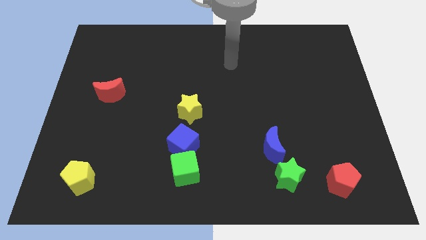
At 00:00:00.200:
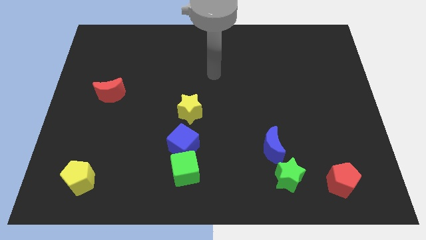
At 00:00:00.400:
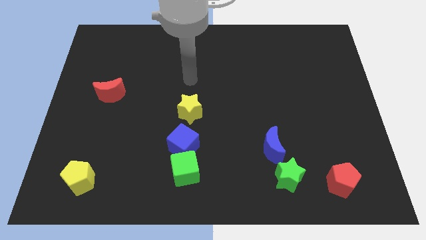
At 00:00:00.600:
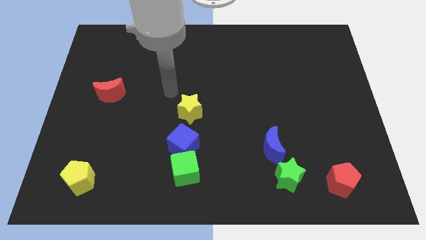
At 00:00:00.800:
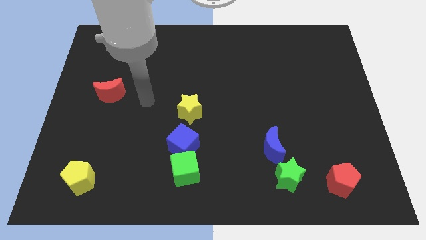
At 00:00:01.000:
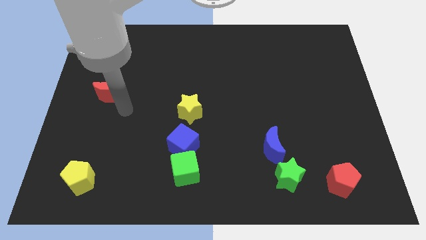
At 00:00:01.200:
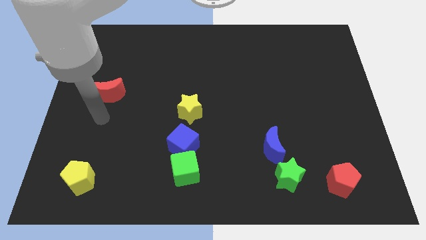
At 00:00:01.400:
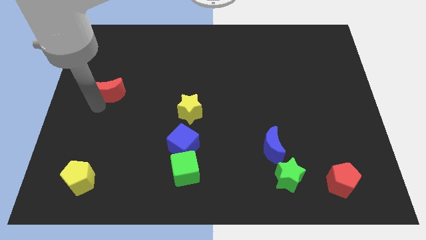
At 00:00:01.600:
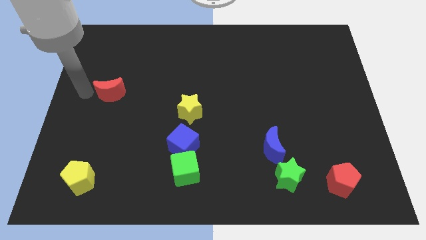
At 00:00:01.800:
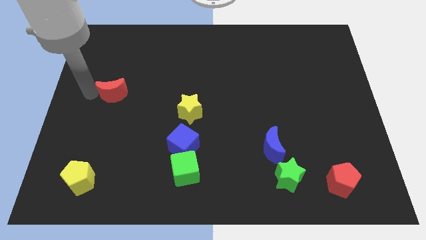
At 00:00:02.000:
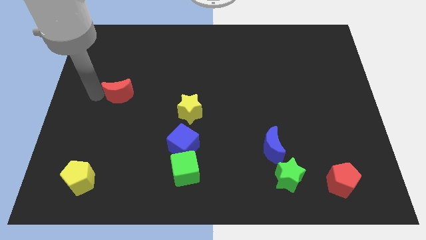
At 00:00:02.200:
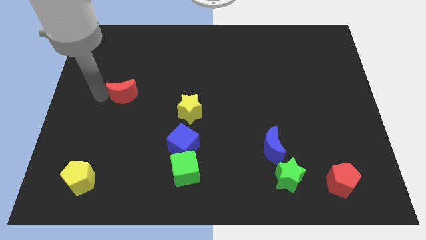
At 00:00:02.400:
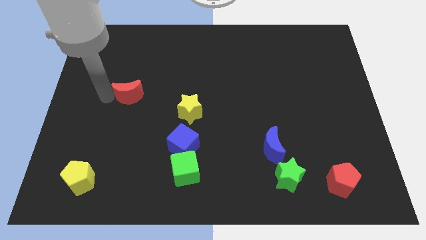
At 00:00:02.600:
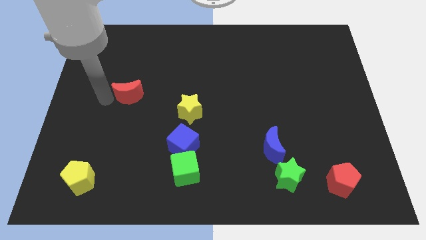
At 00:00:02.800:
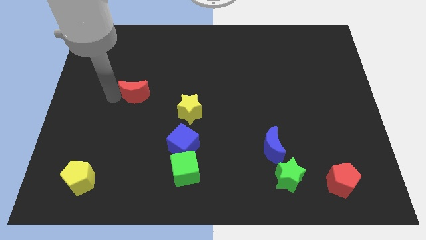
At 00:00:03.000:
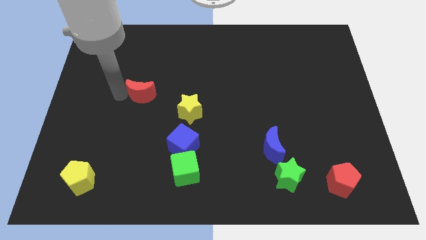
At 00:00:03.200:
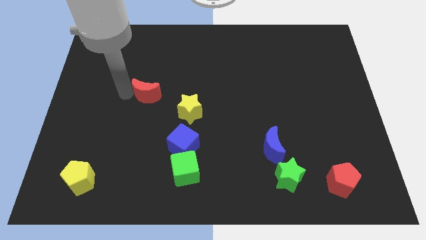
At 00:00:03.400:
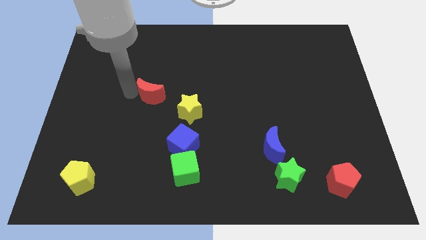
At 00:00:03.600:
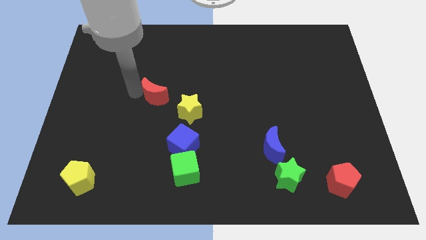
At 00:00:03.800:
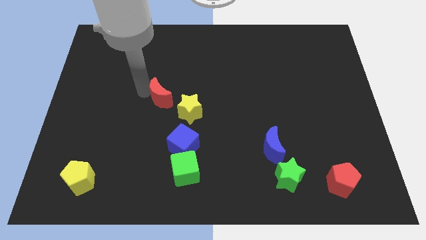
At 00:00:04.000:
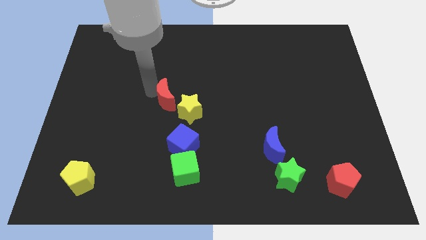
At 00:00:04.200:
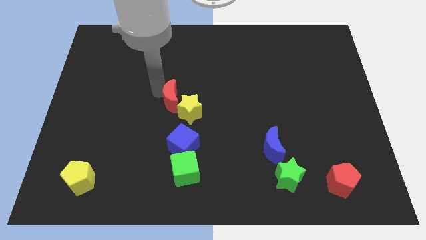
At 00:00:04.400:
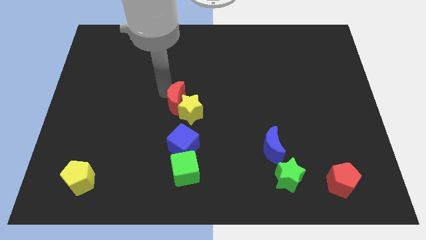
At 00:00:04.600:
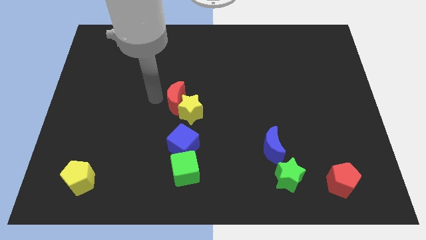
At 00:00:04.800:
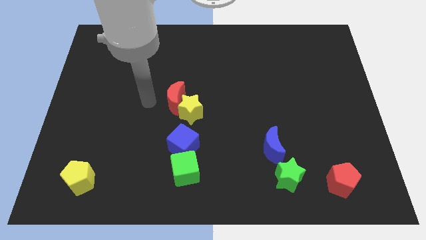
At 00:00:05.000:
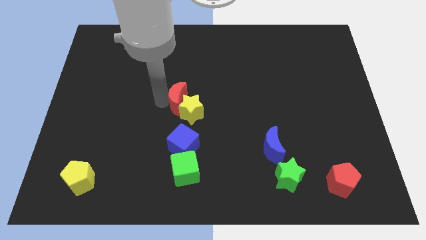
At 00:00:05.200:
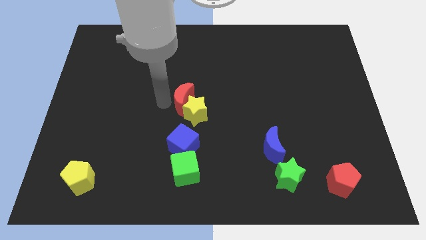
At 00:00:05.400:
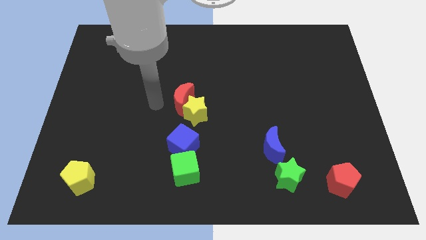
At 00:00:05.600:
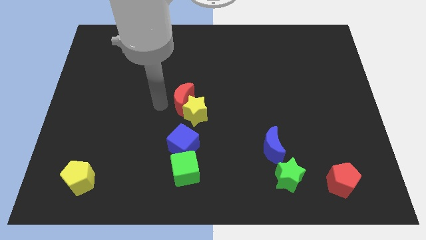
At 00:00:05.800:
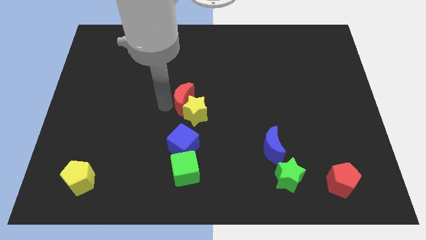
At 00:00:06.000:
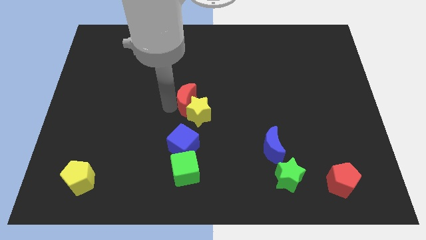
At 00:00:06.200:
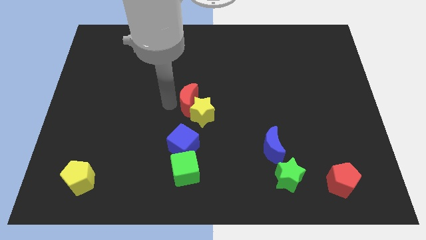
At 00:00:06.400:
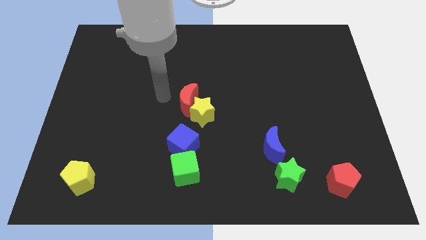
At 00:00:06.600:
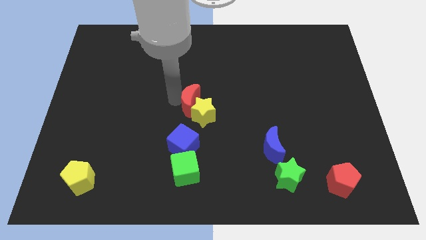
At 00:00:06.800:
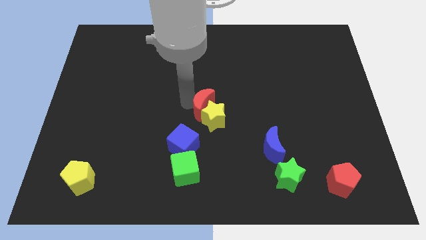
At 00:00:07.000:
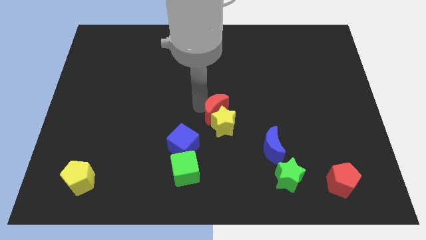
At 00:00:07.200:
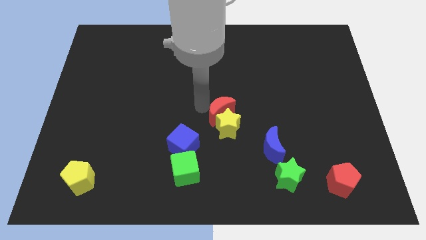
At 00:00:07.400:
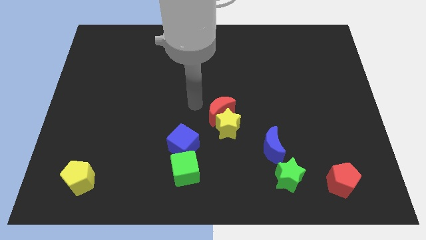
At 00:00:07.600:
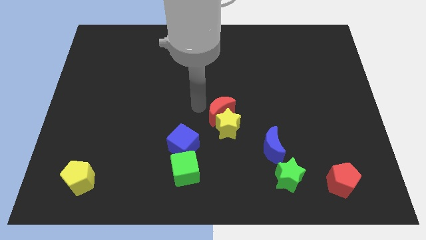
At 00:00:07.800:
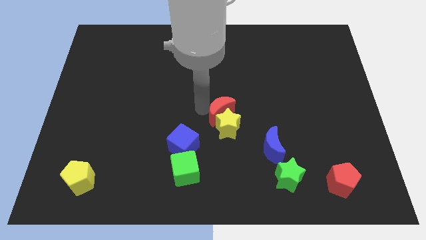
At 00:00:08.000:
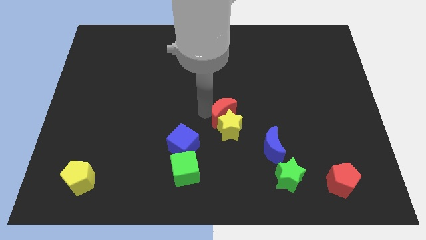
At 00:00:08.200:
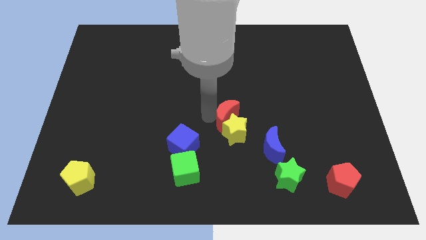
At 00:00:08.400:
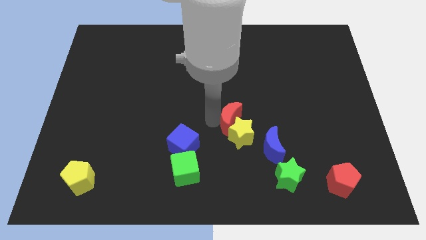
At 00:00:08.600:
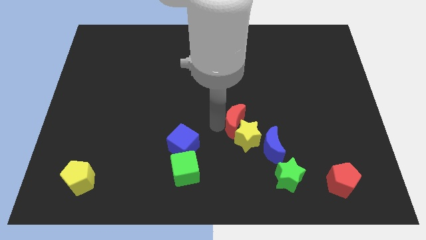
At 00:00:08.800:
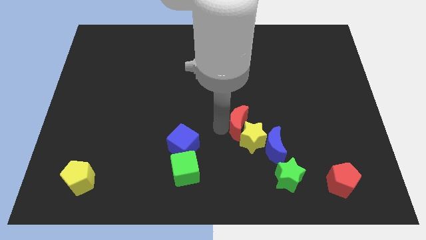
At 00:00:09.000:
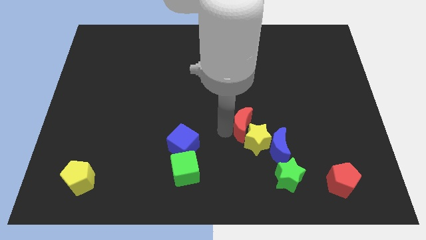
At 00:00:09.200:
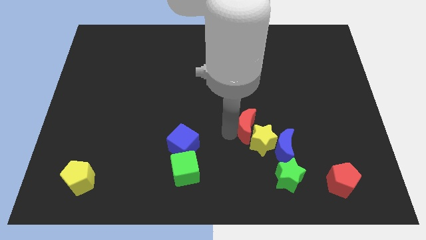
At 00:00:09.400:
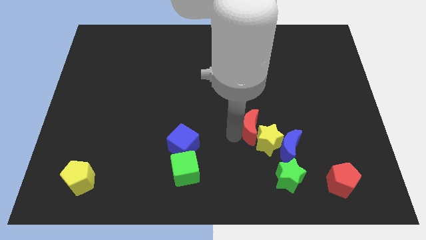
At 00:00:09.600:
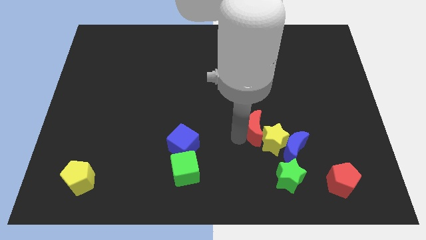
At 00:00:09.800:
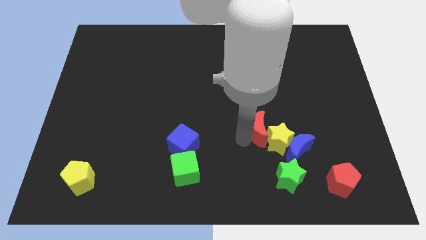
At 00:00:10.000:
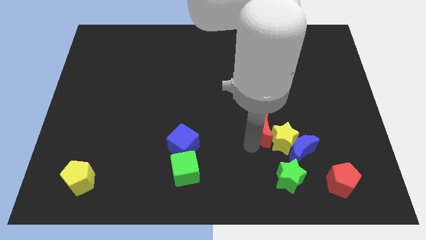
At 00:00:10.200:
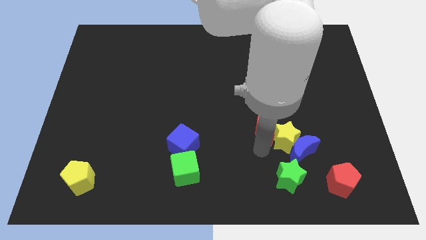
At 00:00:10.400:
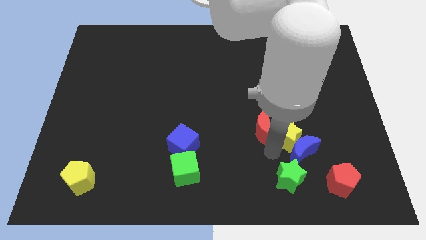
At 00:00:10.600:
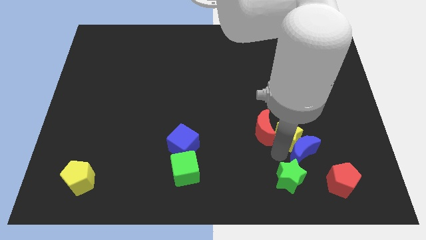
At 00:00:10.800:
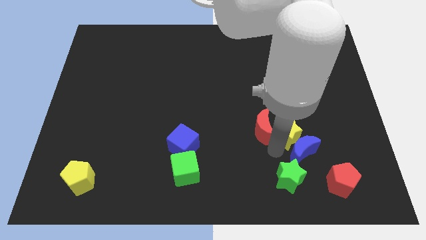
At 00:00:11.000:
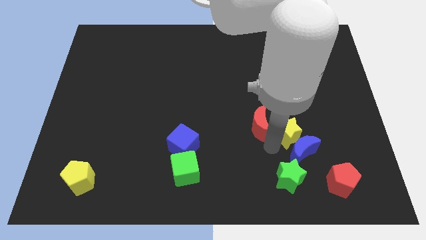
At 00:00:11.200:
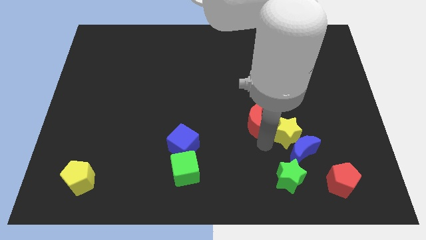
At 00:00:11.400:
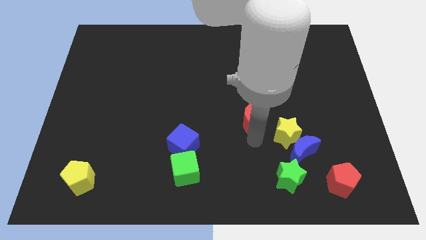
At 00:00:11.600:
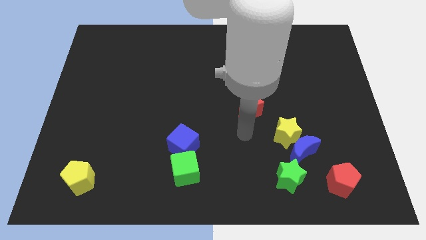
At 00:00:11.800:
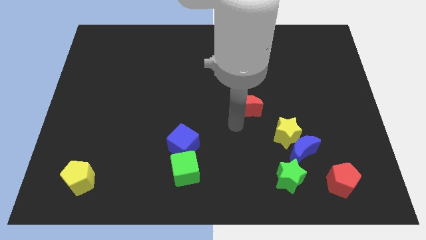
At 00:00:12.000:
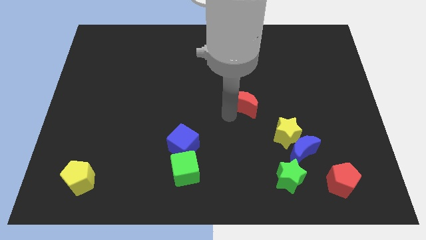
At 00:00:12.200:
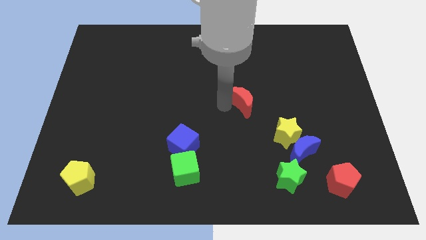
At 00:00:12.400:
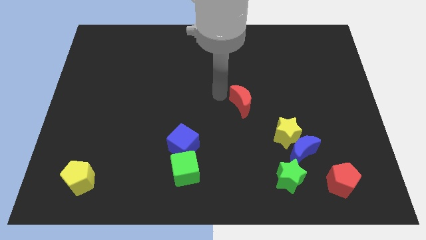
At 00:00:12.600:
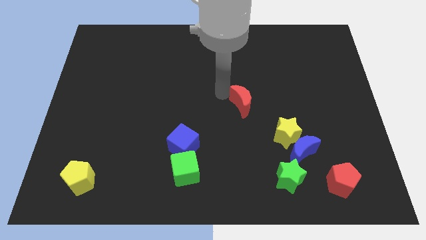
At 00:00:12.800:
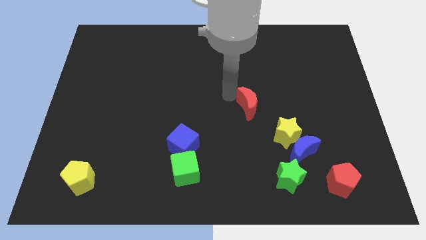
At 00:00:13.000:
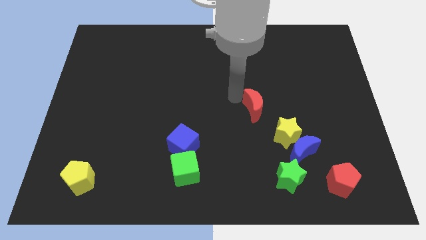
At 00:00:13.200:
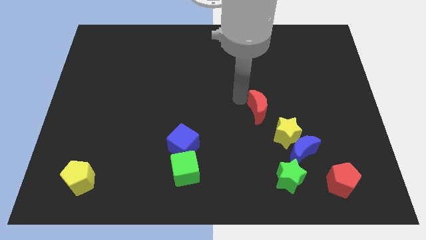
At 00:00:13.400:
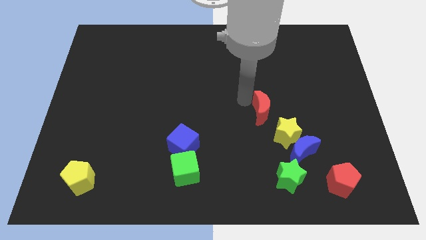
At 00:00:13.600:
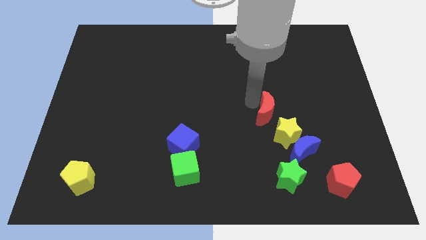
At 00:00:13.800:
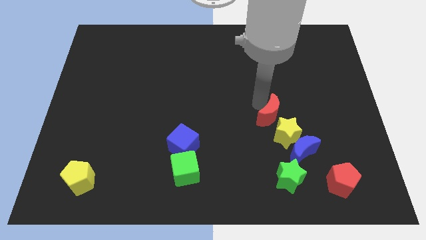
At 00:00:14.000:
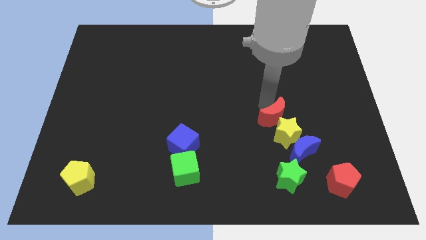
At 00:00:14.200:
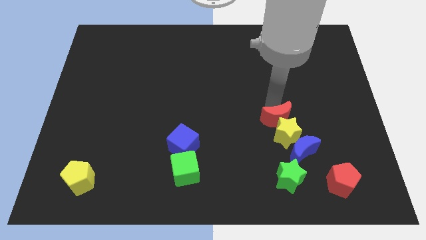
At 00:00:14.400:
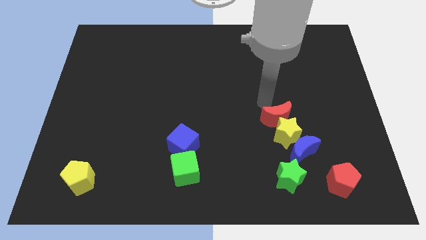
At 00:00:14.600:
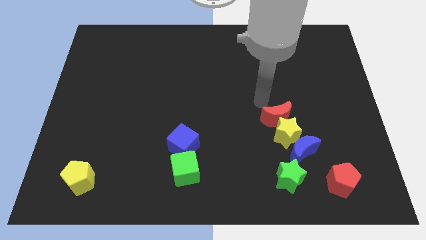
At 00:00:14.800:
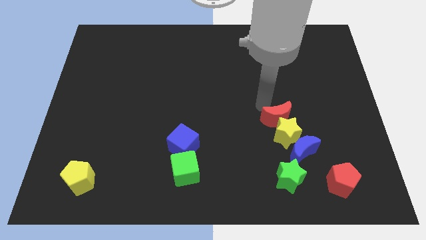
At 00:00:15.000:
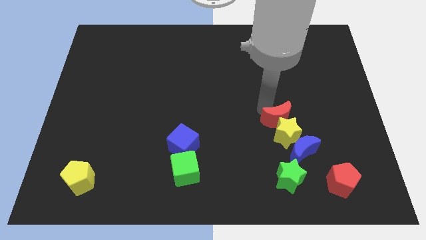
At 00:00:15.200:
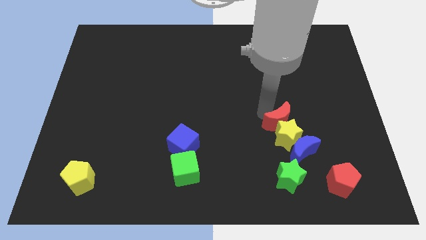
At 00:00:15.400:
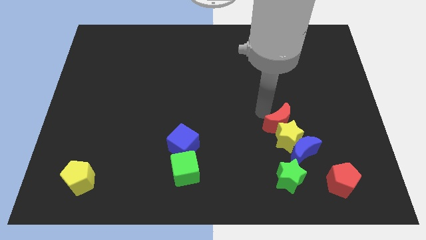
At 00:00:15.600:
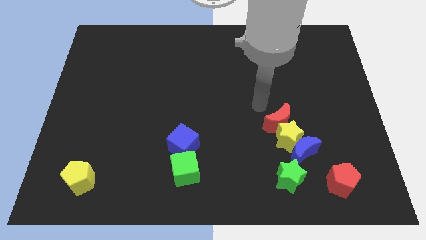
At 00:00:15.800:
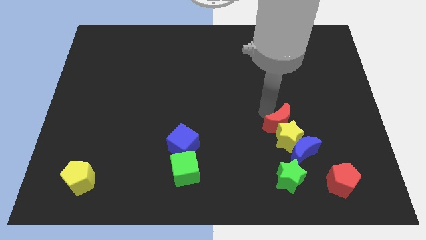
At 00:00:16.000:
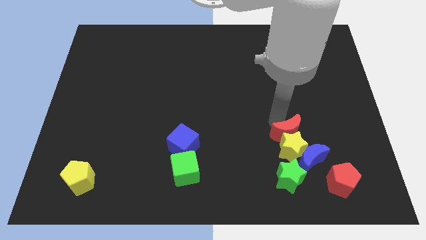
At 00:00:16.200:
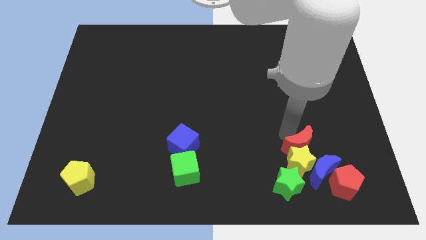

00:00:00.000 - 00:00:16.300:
push the red moon to the top left side of the red pentagon
